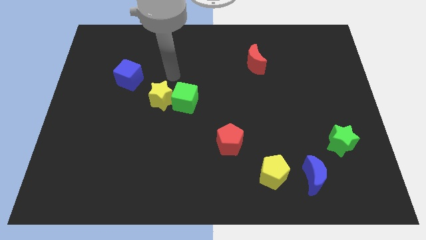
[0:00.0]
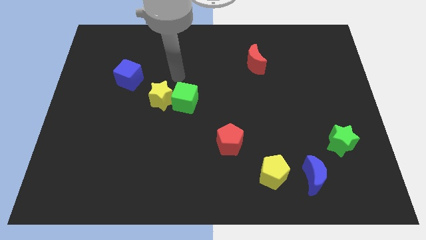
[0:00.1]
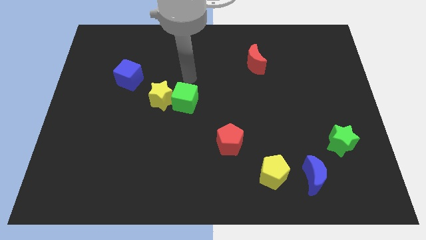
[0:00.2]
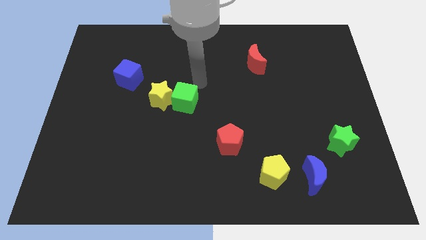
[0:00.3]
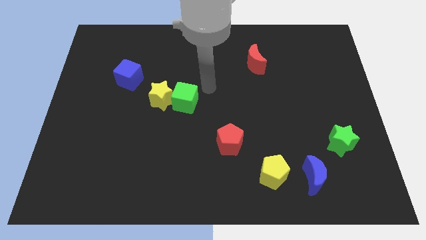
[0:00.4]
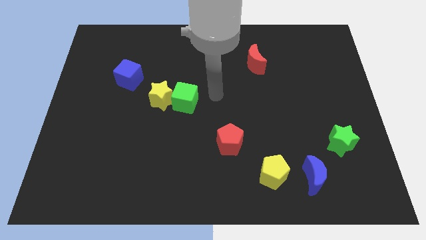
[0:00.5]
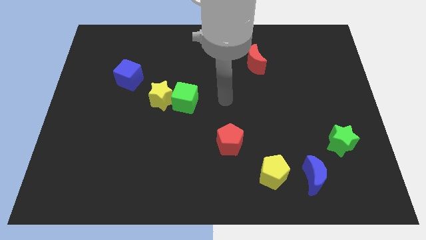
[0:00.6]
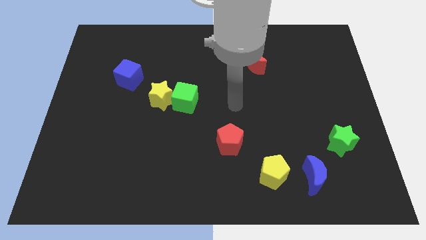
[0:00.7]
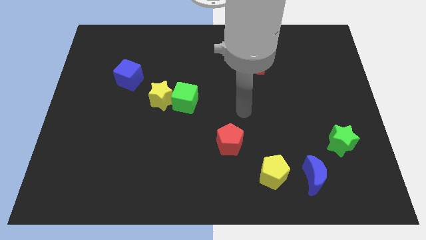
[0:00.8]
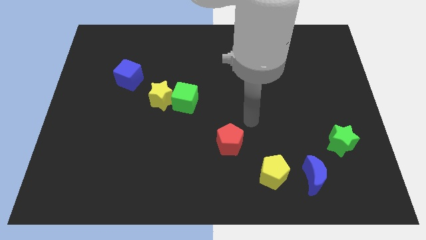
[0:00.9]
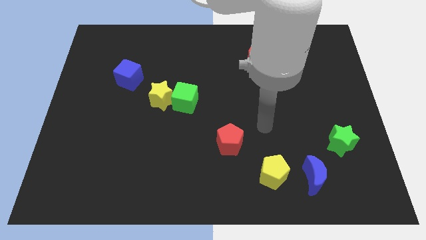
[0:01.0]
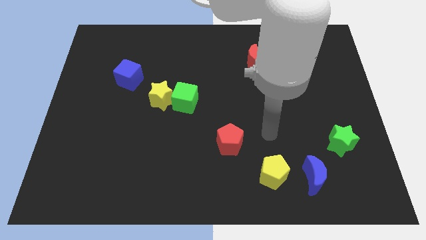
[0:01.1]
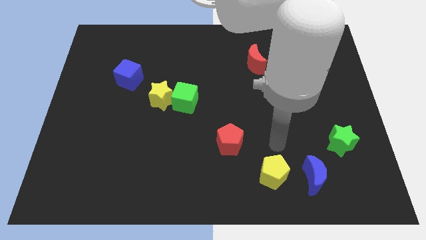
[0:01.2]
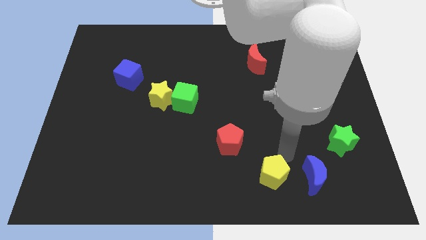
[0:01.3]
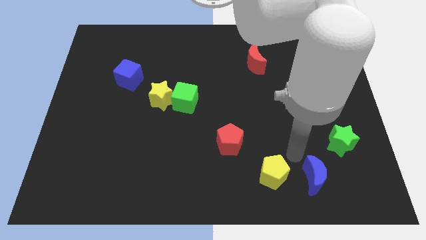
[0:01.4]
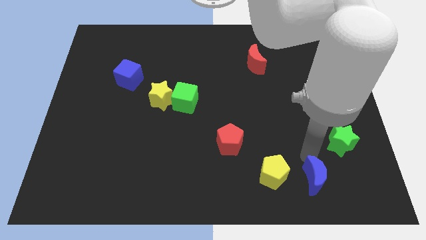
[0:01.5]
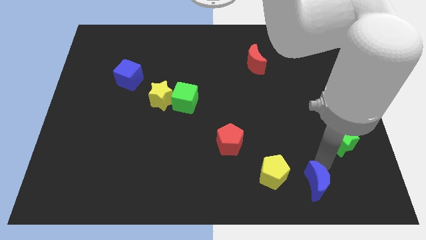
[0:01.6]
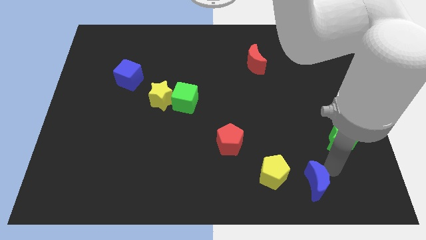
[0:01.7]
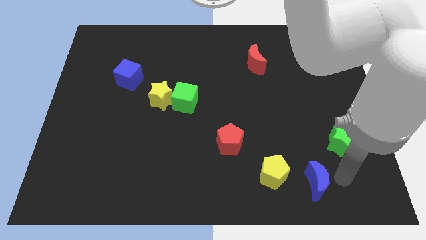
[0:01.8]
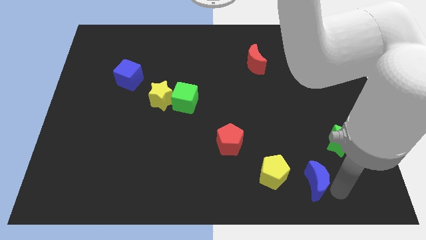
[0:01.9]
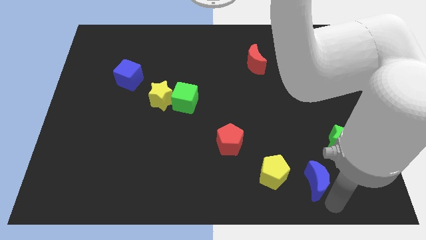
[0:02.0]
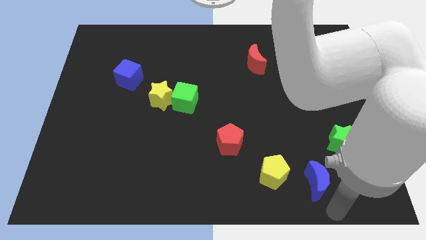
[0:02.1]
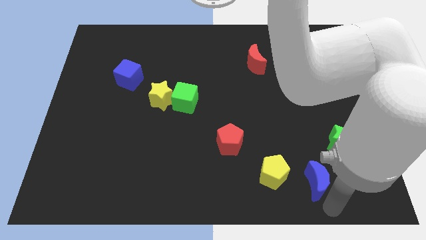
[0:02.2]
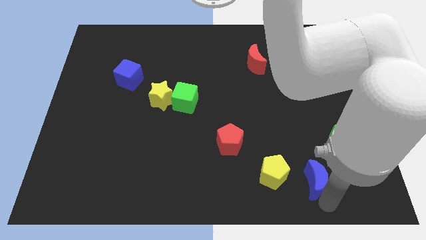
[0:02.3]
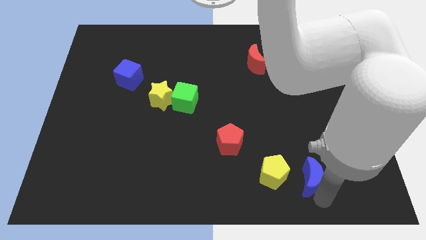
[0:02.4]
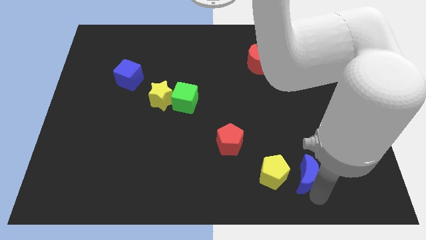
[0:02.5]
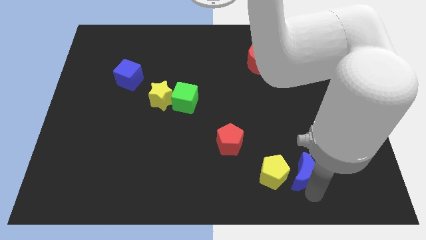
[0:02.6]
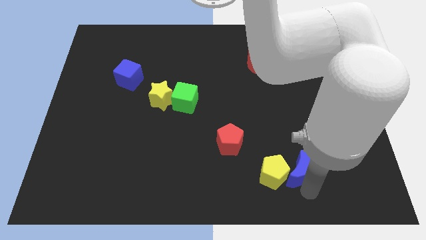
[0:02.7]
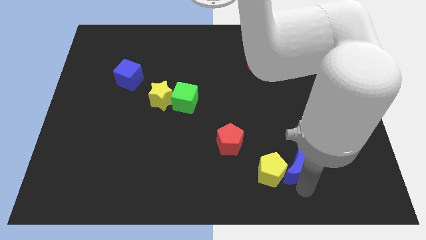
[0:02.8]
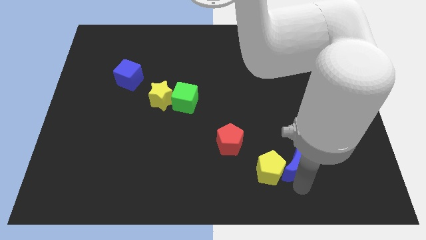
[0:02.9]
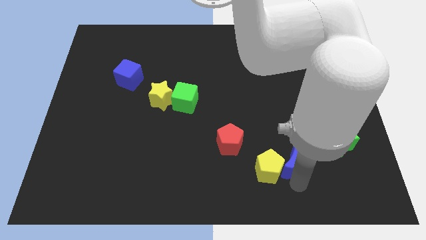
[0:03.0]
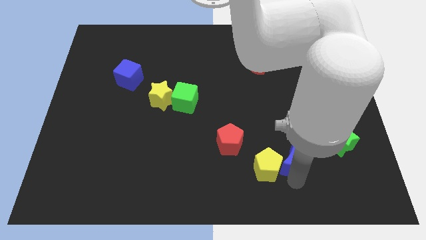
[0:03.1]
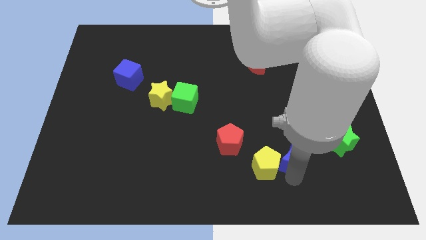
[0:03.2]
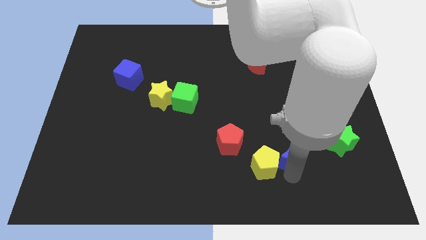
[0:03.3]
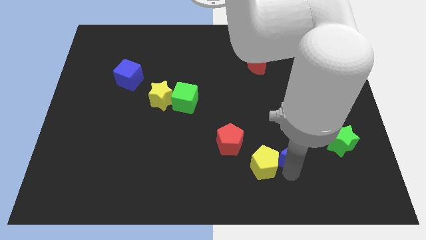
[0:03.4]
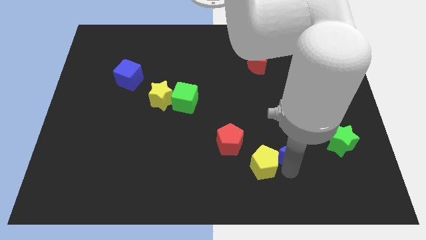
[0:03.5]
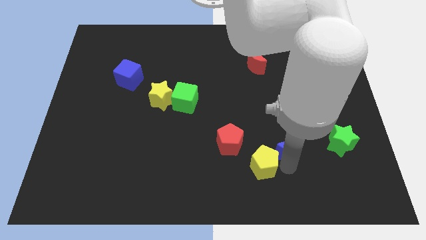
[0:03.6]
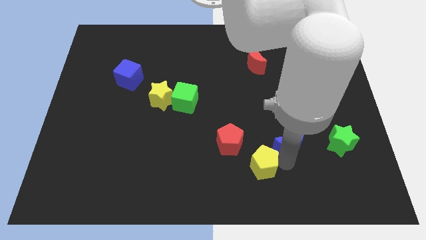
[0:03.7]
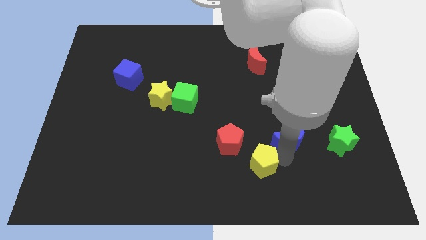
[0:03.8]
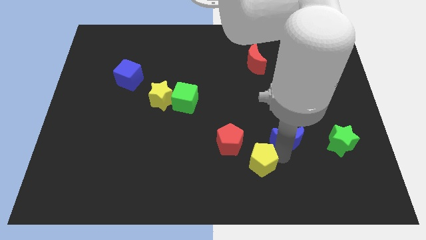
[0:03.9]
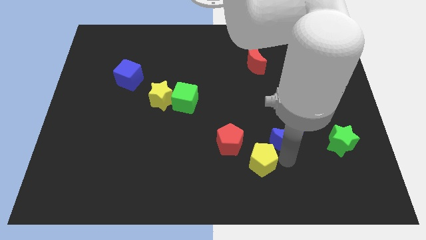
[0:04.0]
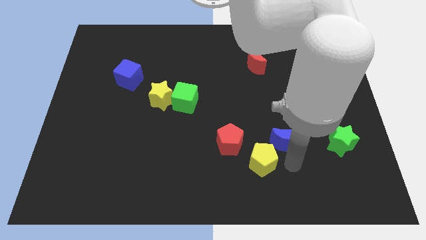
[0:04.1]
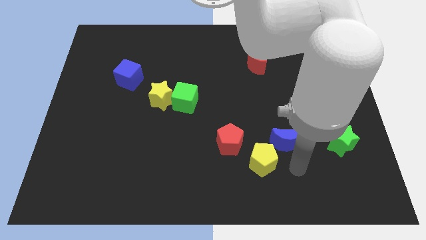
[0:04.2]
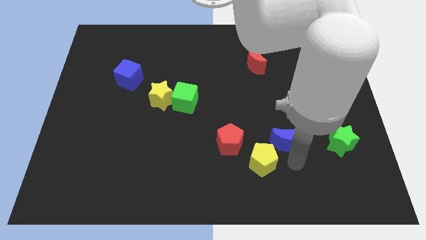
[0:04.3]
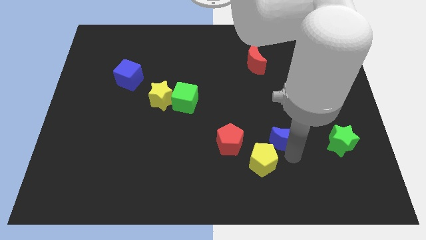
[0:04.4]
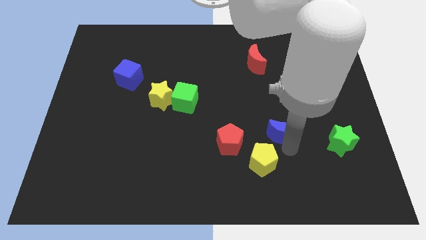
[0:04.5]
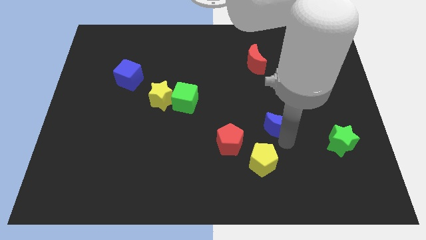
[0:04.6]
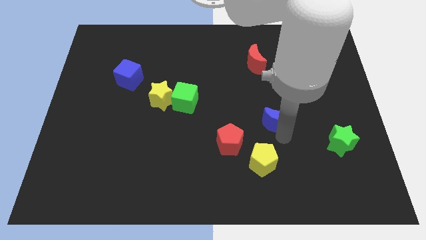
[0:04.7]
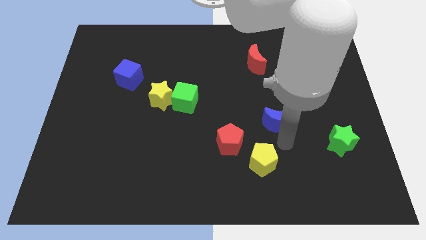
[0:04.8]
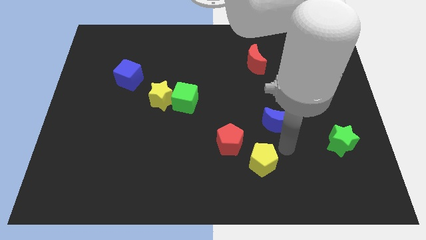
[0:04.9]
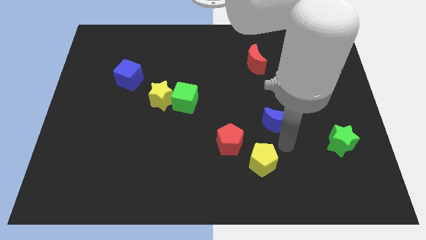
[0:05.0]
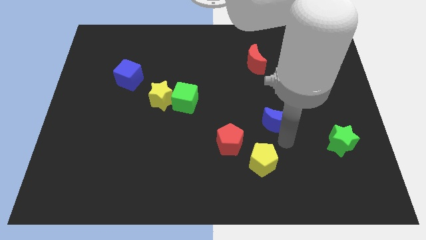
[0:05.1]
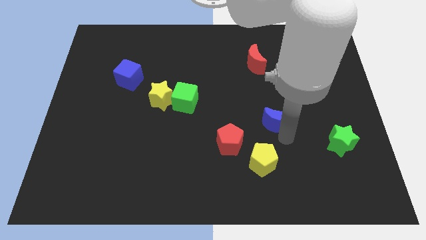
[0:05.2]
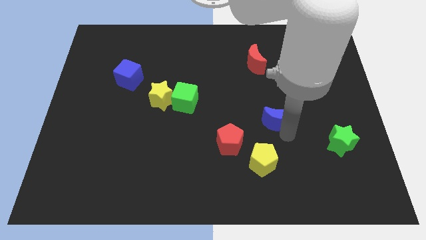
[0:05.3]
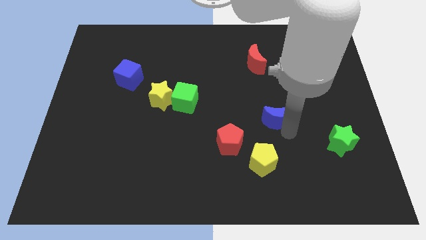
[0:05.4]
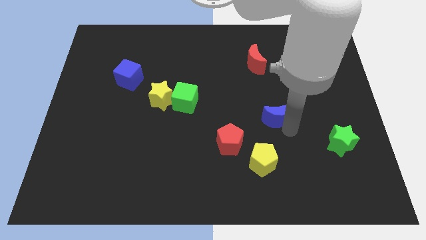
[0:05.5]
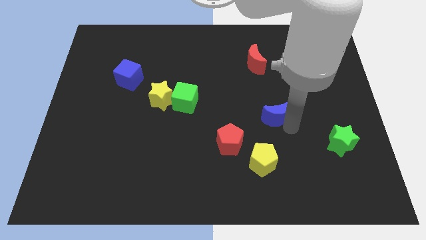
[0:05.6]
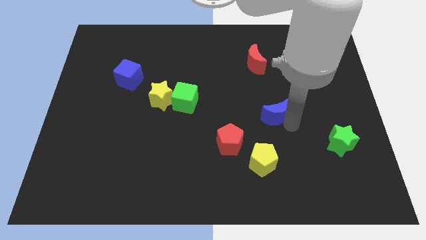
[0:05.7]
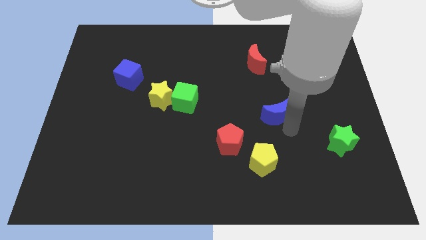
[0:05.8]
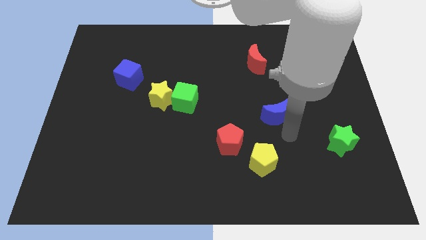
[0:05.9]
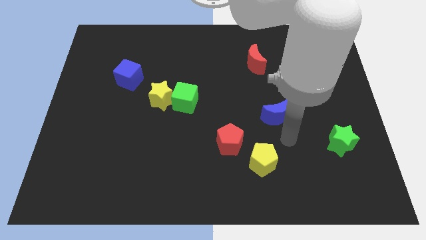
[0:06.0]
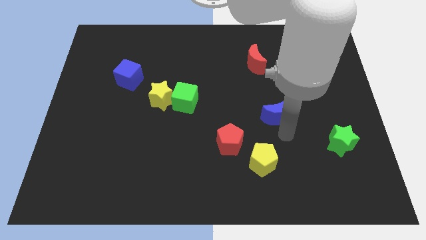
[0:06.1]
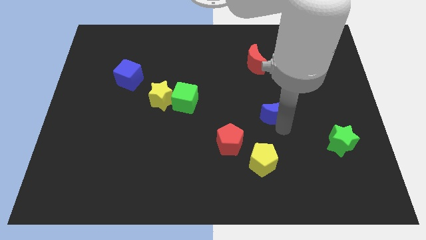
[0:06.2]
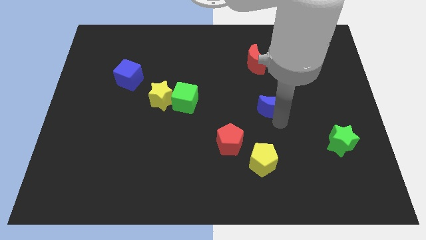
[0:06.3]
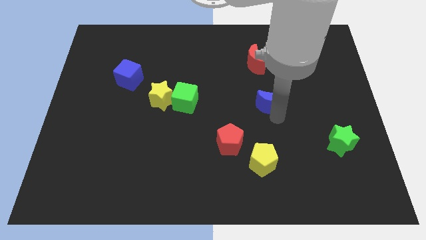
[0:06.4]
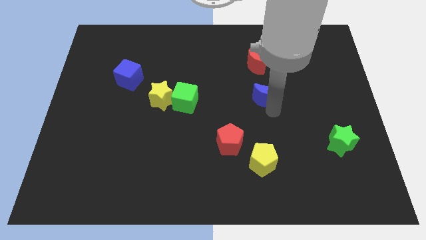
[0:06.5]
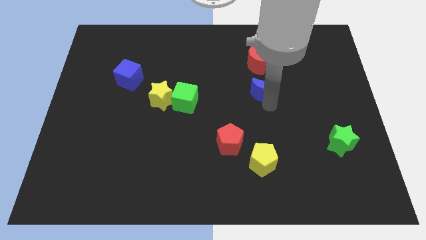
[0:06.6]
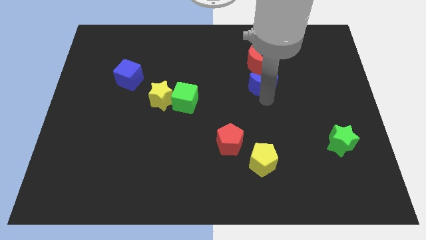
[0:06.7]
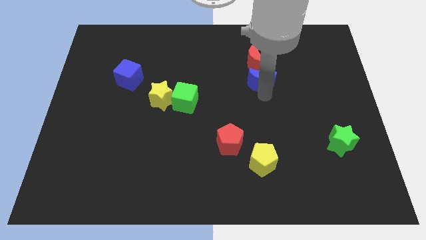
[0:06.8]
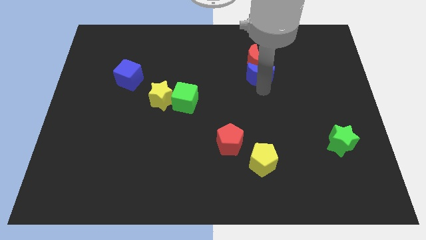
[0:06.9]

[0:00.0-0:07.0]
slide the blue moon towards the red moon

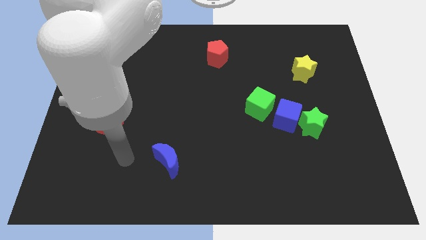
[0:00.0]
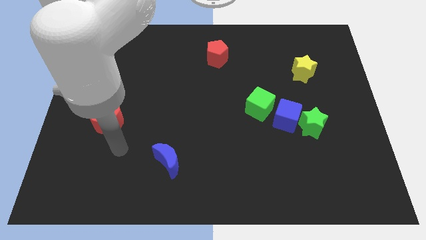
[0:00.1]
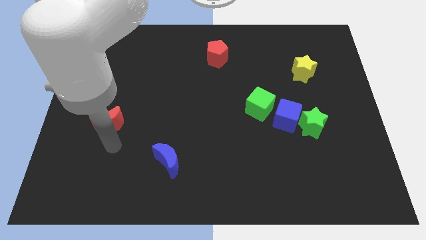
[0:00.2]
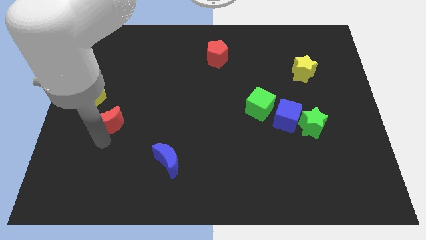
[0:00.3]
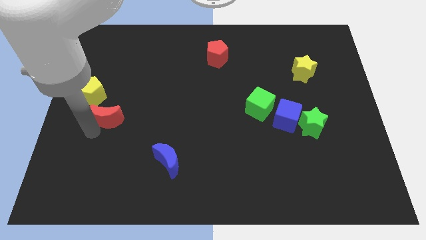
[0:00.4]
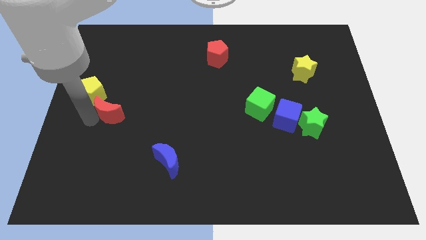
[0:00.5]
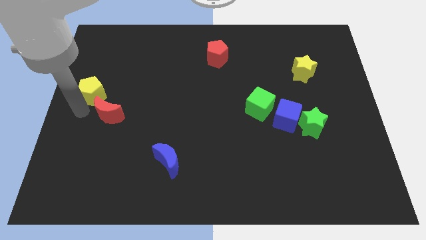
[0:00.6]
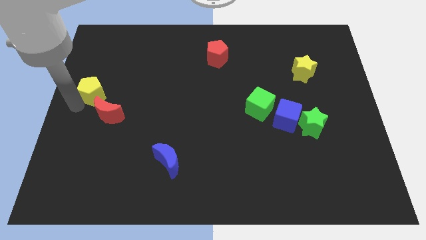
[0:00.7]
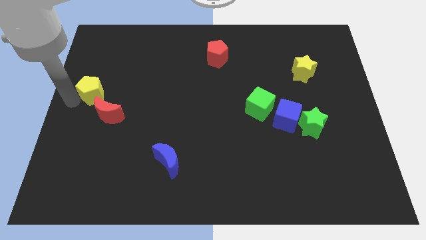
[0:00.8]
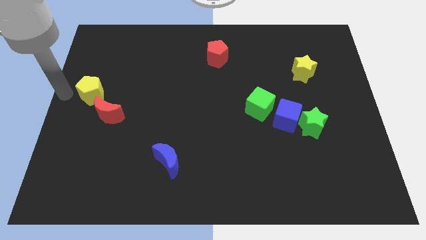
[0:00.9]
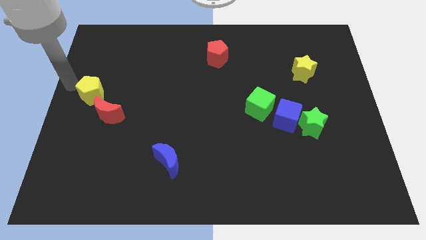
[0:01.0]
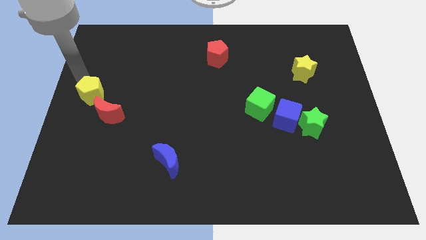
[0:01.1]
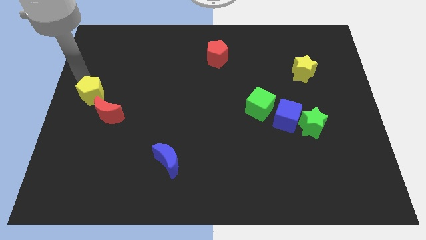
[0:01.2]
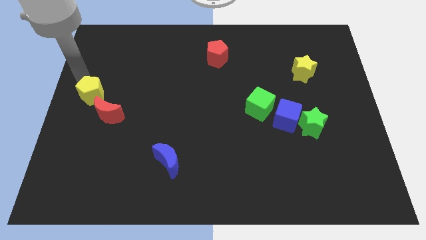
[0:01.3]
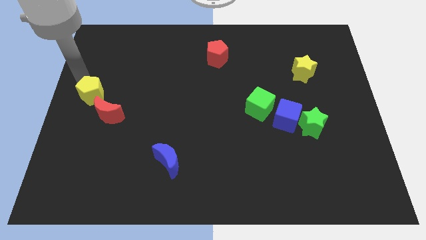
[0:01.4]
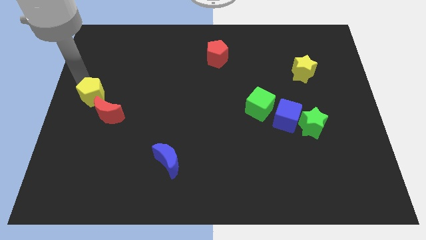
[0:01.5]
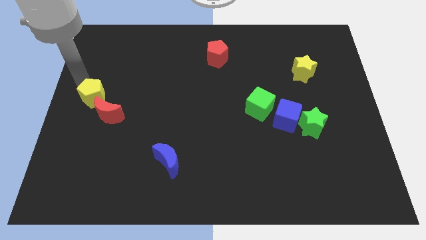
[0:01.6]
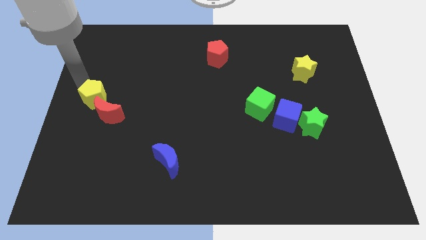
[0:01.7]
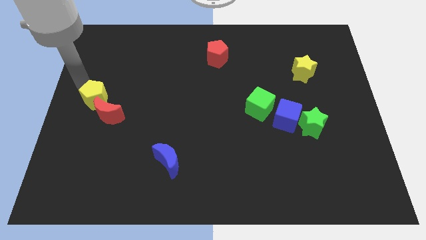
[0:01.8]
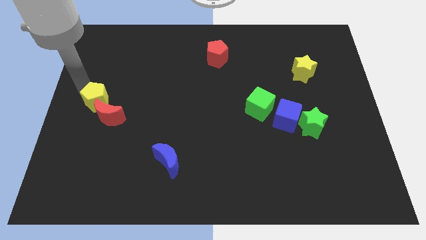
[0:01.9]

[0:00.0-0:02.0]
move the yellow pentagon towards the red moon
